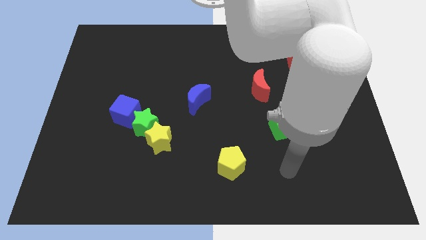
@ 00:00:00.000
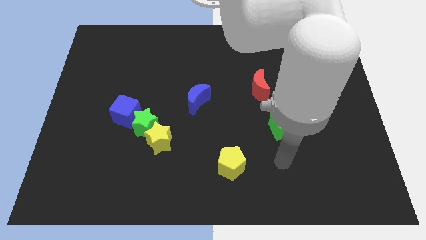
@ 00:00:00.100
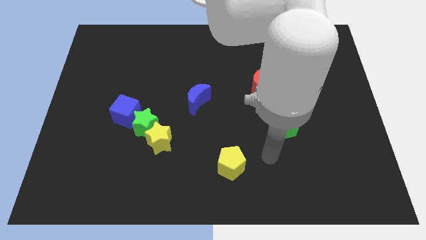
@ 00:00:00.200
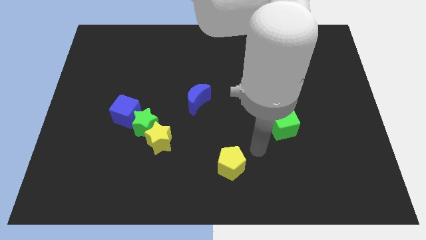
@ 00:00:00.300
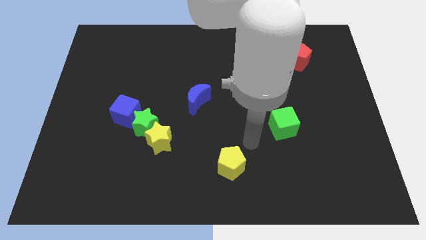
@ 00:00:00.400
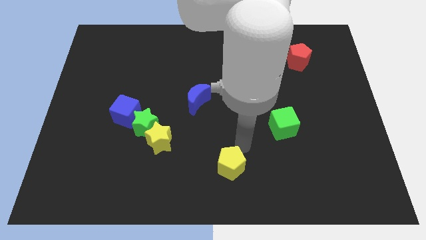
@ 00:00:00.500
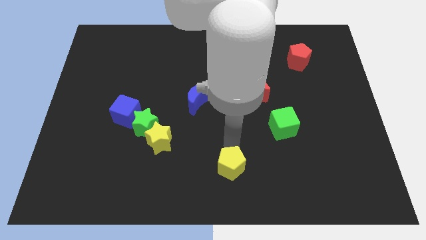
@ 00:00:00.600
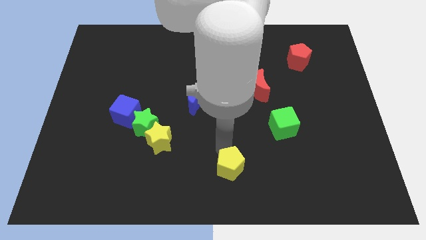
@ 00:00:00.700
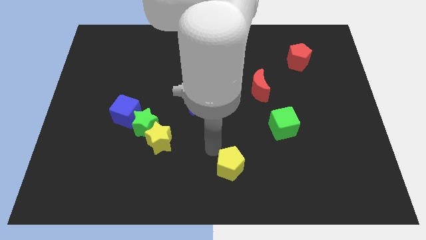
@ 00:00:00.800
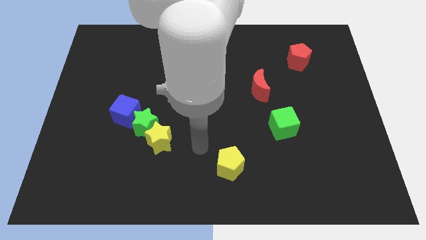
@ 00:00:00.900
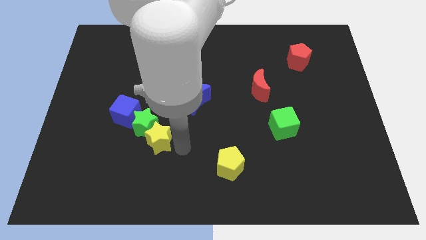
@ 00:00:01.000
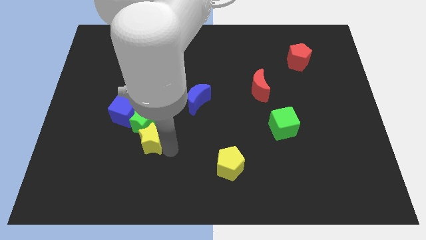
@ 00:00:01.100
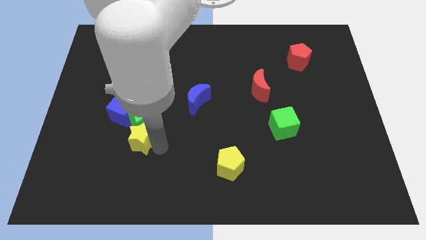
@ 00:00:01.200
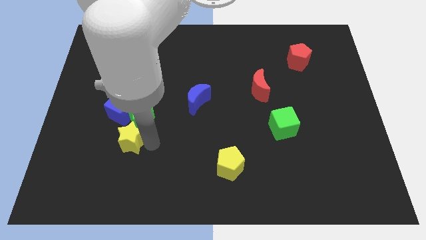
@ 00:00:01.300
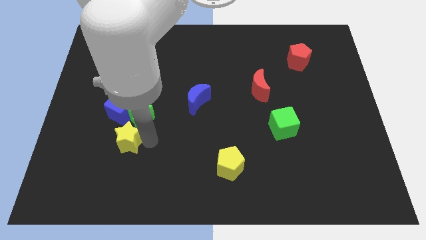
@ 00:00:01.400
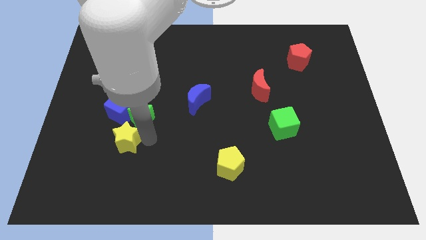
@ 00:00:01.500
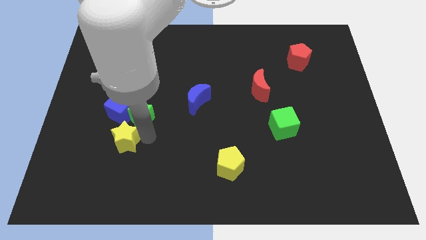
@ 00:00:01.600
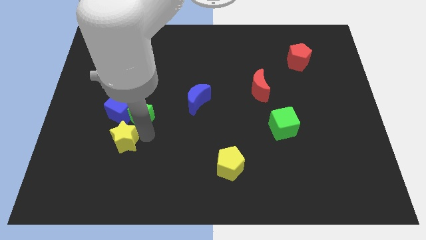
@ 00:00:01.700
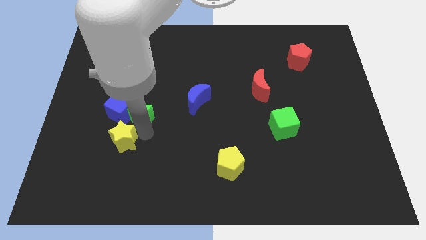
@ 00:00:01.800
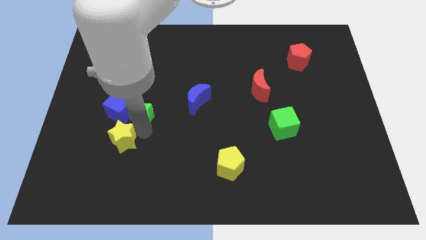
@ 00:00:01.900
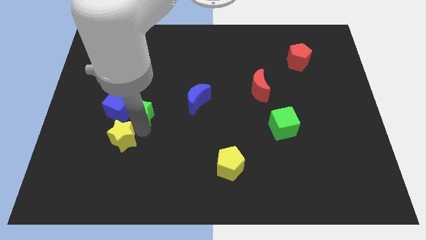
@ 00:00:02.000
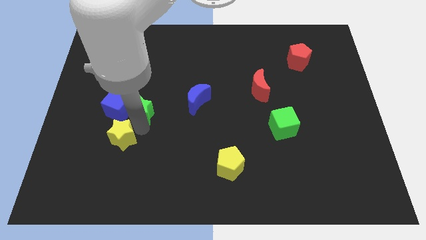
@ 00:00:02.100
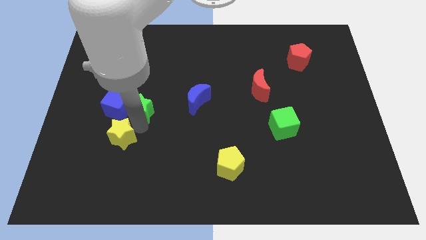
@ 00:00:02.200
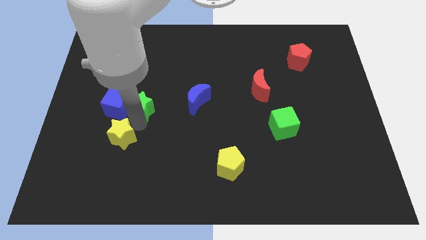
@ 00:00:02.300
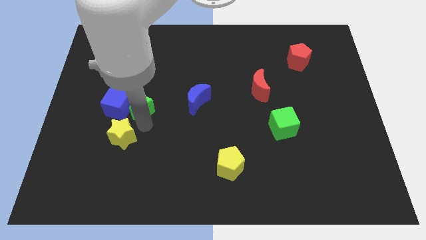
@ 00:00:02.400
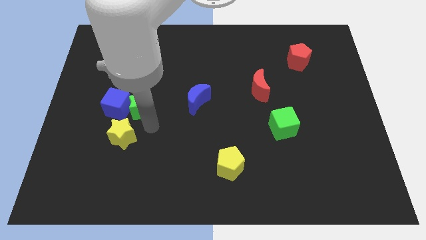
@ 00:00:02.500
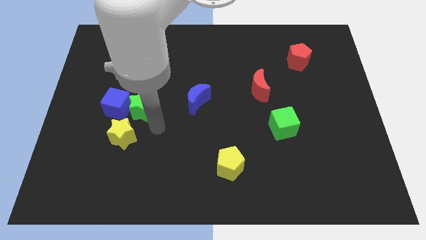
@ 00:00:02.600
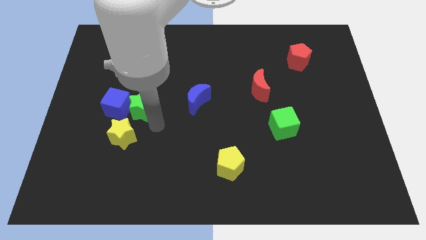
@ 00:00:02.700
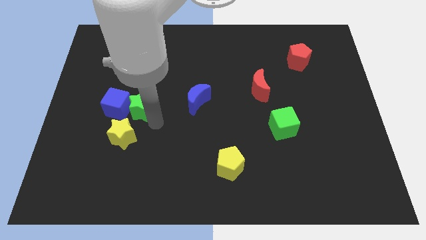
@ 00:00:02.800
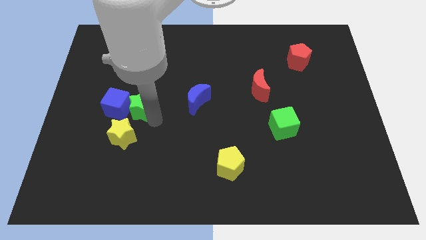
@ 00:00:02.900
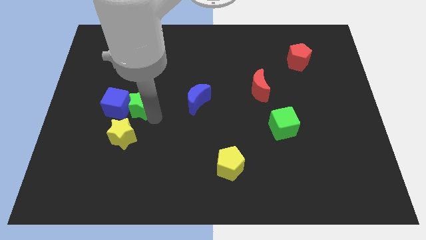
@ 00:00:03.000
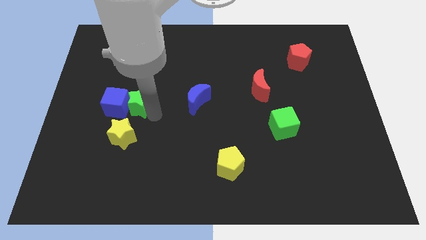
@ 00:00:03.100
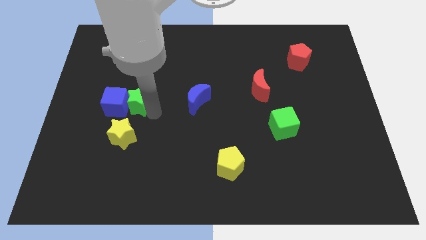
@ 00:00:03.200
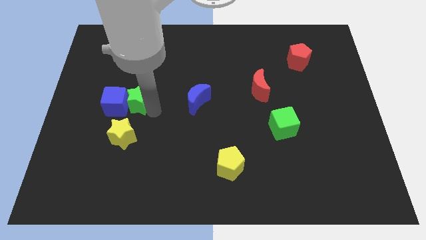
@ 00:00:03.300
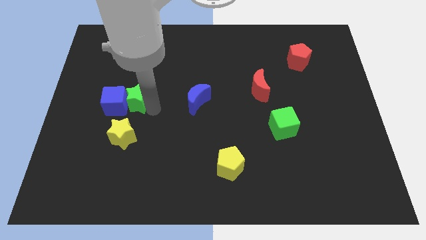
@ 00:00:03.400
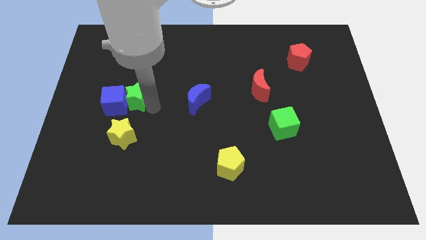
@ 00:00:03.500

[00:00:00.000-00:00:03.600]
slightly push the green star up and to the left

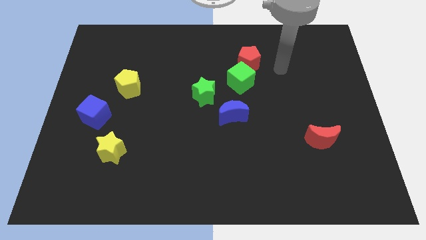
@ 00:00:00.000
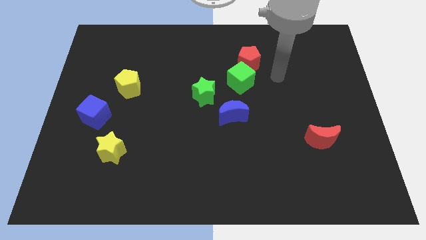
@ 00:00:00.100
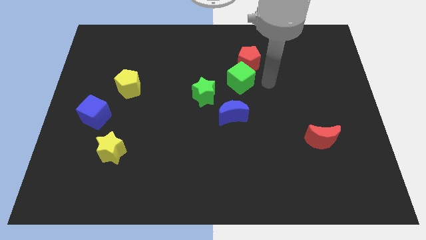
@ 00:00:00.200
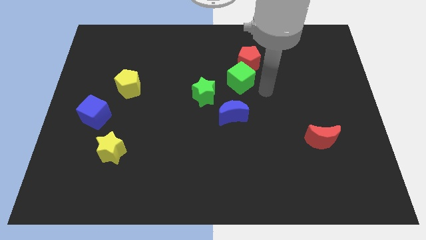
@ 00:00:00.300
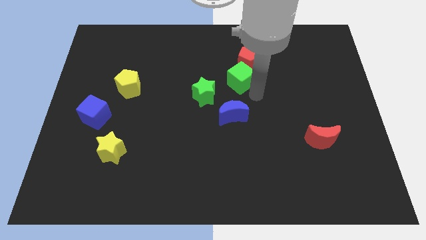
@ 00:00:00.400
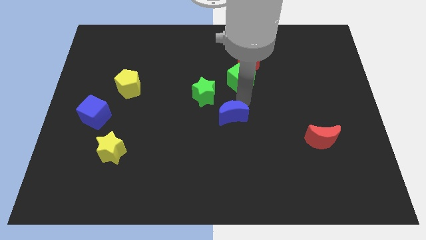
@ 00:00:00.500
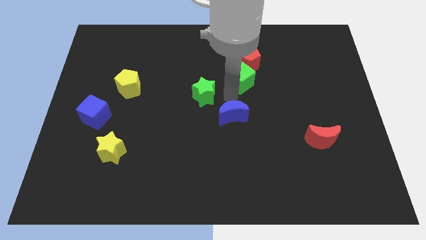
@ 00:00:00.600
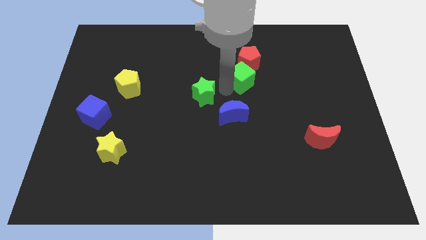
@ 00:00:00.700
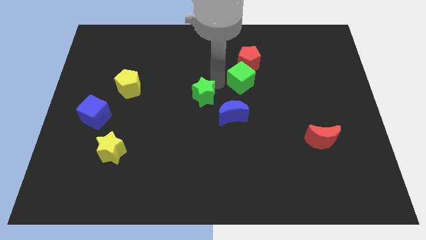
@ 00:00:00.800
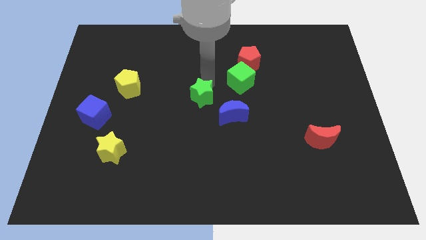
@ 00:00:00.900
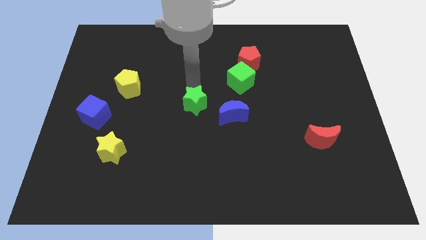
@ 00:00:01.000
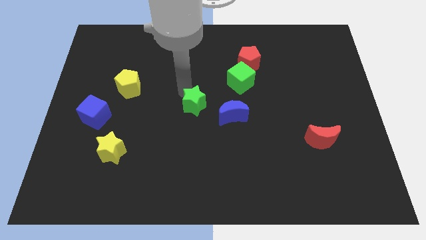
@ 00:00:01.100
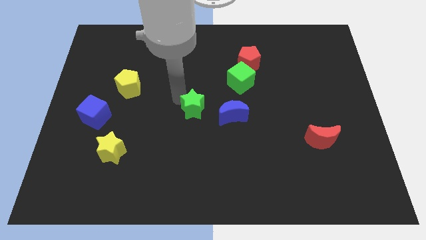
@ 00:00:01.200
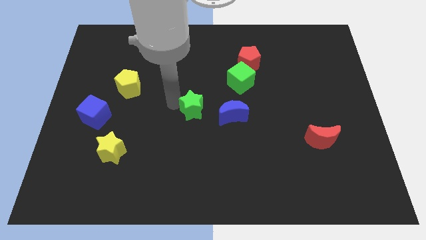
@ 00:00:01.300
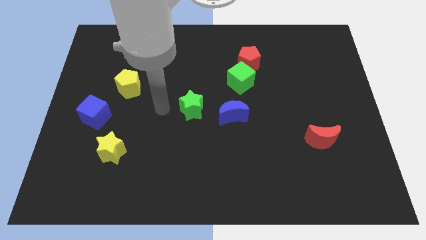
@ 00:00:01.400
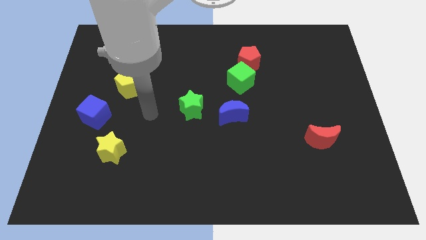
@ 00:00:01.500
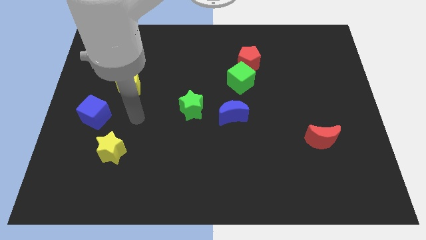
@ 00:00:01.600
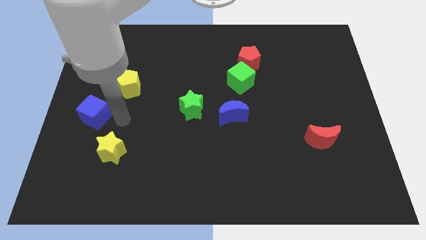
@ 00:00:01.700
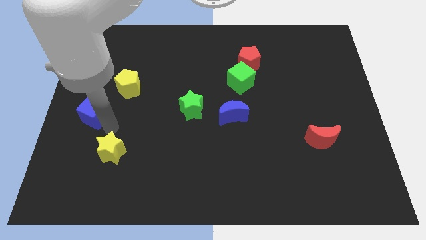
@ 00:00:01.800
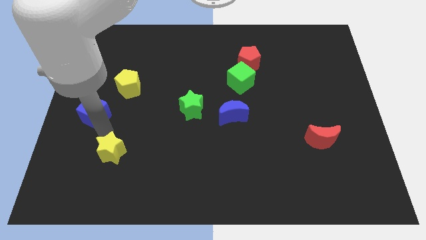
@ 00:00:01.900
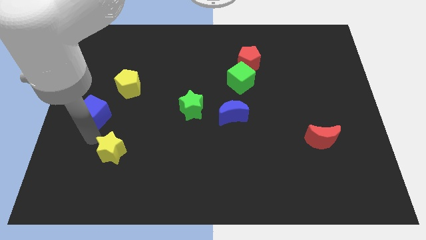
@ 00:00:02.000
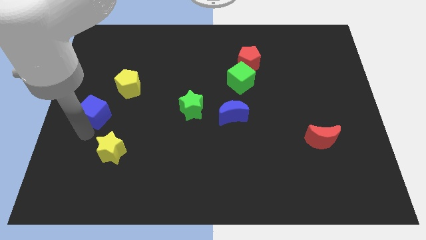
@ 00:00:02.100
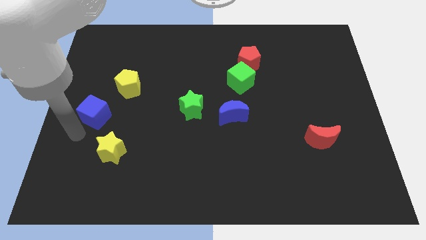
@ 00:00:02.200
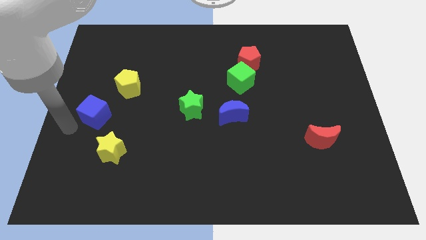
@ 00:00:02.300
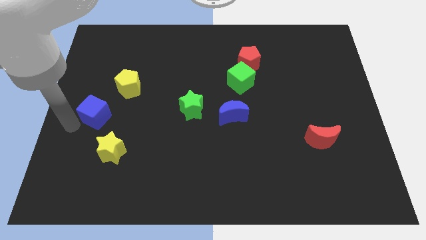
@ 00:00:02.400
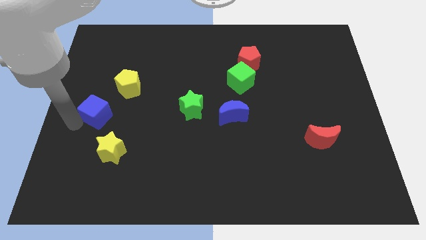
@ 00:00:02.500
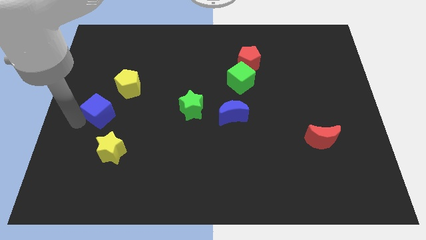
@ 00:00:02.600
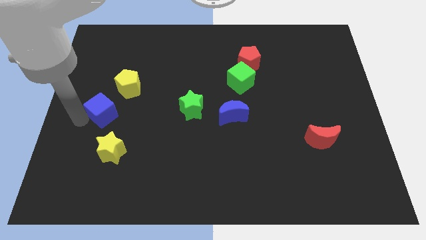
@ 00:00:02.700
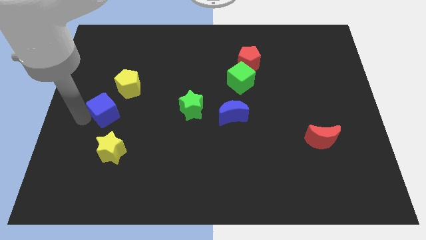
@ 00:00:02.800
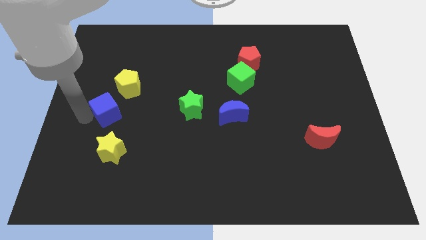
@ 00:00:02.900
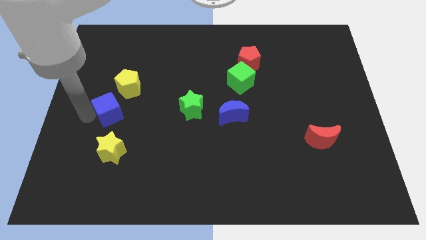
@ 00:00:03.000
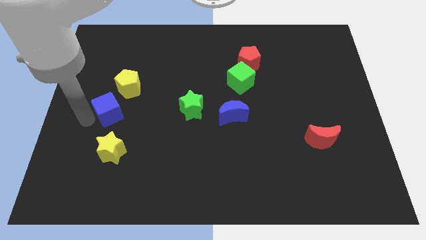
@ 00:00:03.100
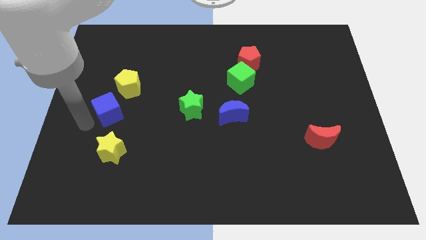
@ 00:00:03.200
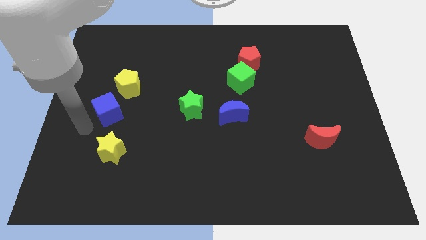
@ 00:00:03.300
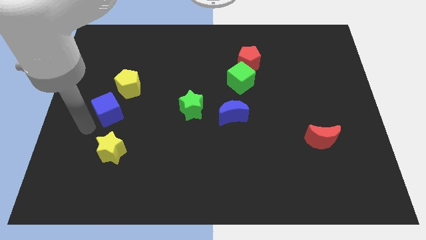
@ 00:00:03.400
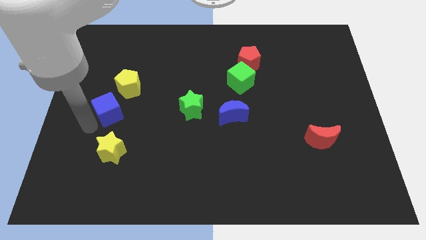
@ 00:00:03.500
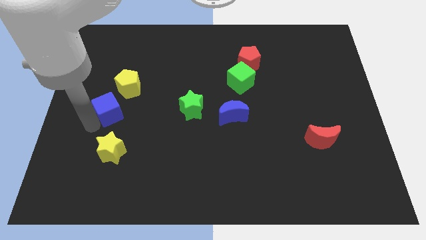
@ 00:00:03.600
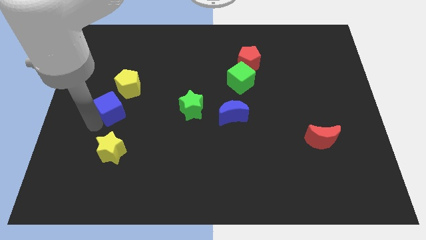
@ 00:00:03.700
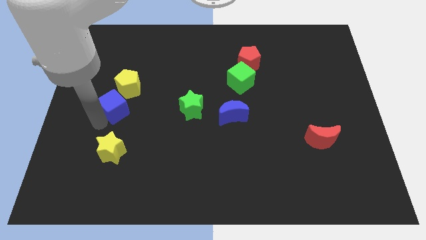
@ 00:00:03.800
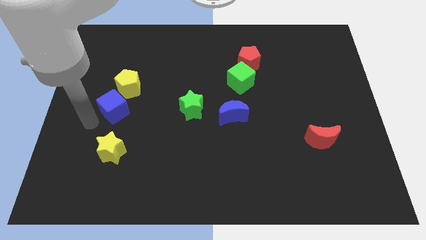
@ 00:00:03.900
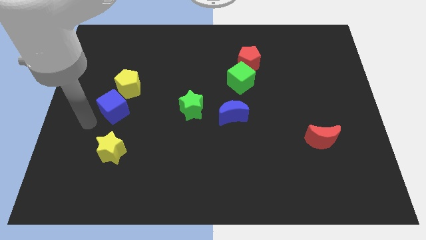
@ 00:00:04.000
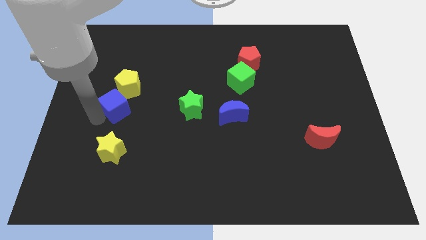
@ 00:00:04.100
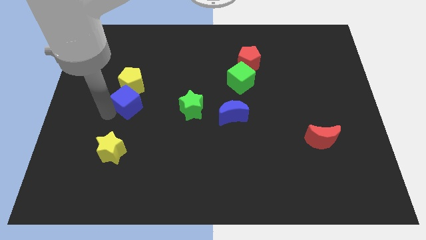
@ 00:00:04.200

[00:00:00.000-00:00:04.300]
push the blue cube a little upwards and to the right diagonally
